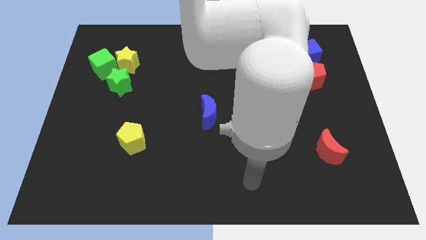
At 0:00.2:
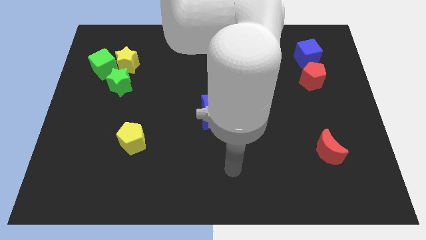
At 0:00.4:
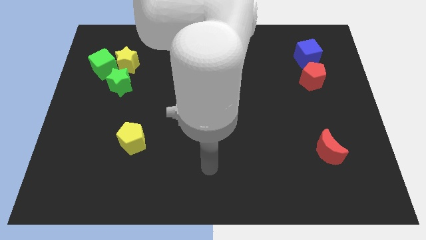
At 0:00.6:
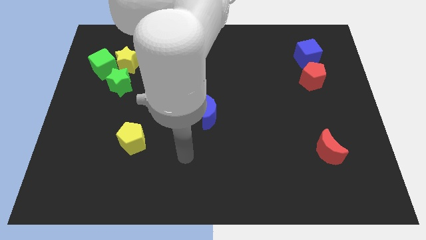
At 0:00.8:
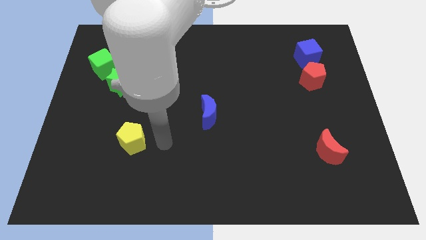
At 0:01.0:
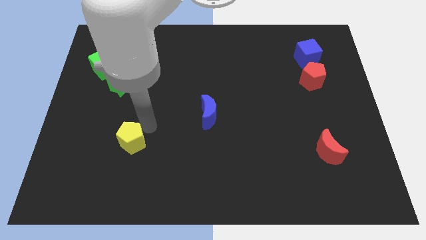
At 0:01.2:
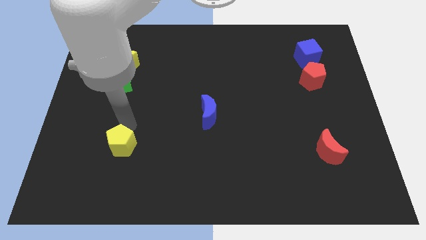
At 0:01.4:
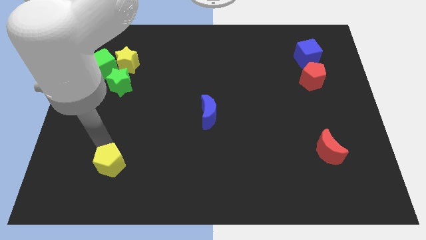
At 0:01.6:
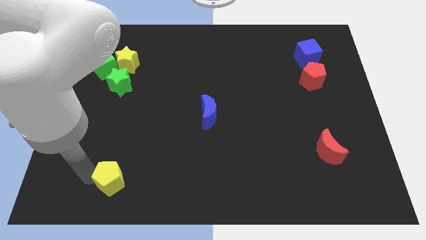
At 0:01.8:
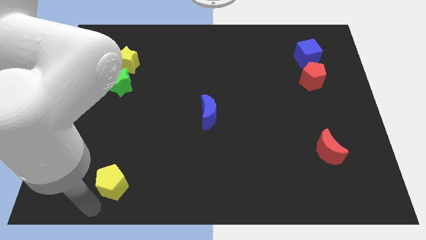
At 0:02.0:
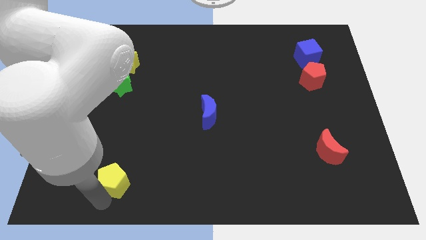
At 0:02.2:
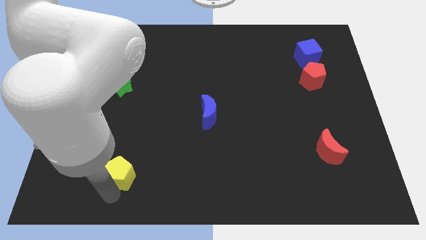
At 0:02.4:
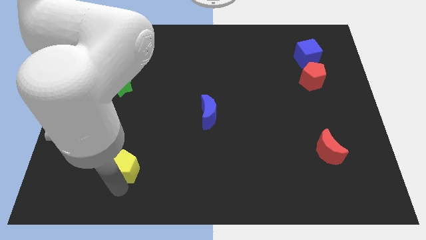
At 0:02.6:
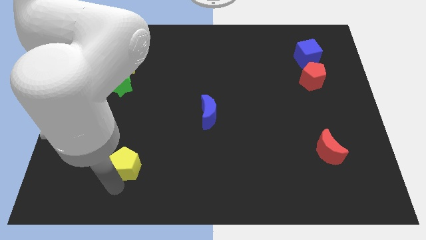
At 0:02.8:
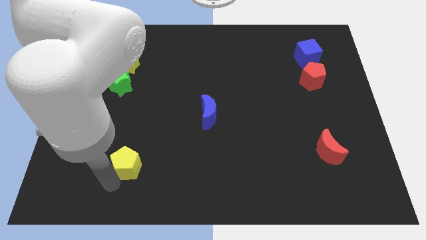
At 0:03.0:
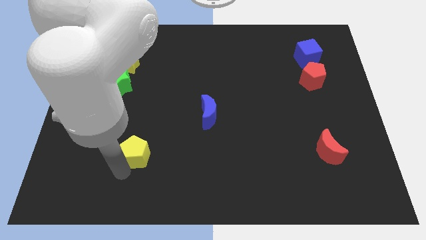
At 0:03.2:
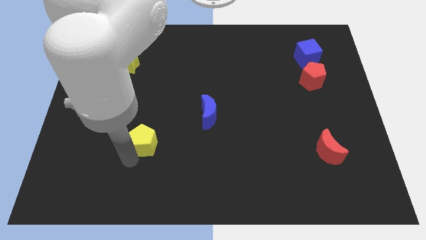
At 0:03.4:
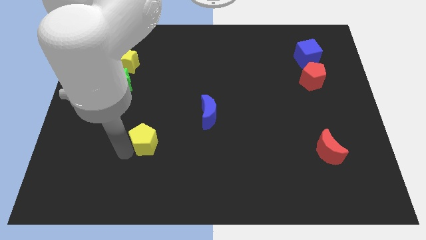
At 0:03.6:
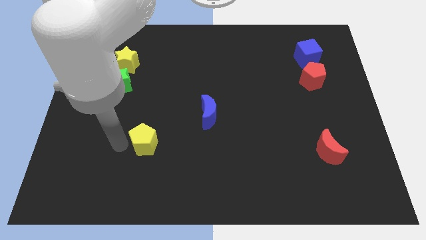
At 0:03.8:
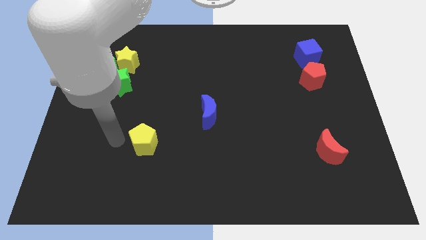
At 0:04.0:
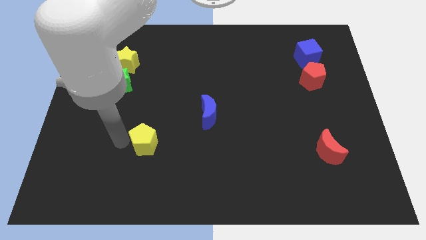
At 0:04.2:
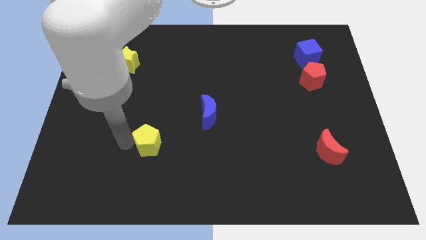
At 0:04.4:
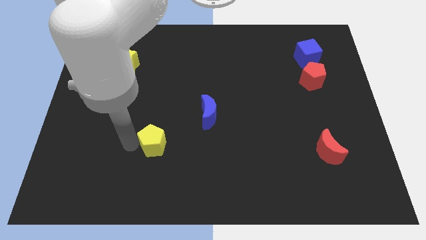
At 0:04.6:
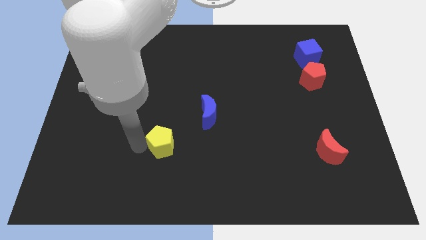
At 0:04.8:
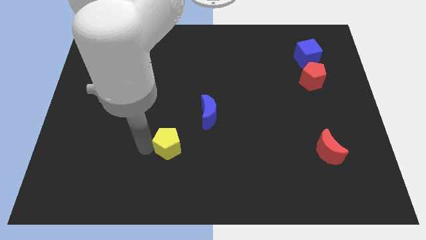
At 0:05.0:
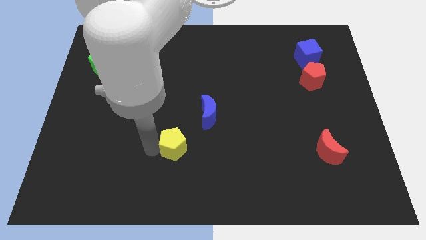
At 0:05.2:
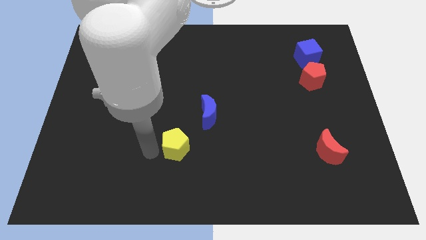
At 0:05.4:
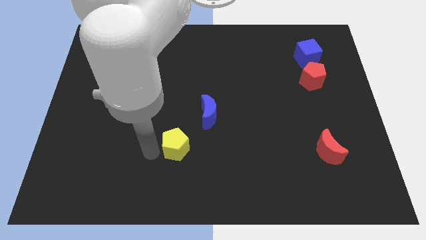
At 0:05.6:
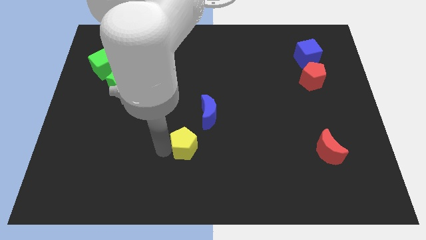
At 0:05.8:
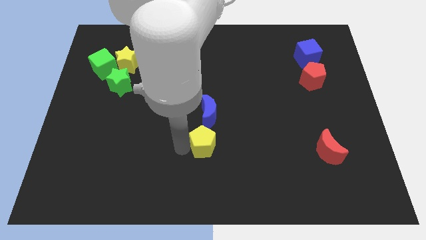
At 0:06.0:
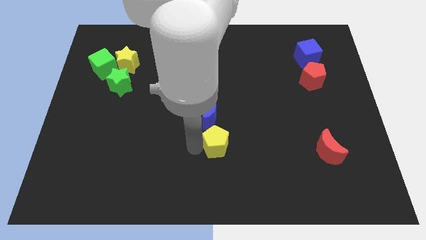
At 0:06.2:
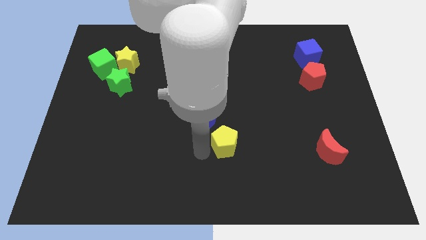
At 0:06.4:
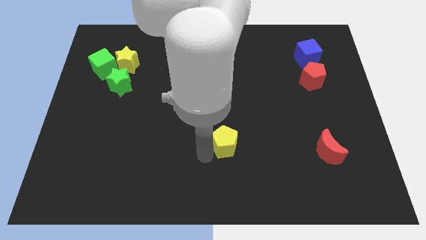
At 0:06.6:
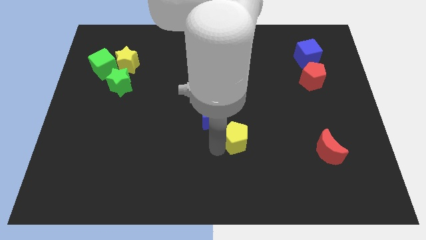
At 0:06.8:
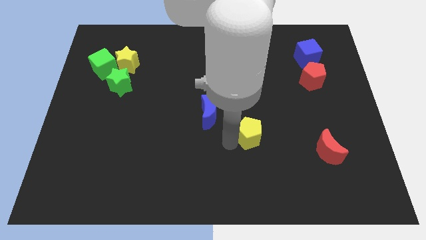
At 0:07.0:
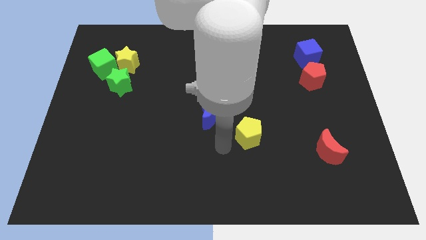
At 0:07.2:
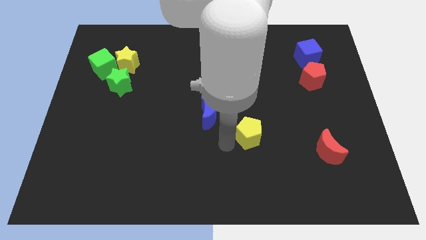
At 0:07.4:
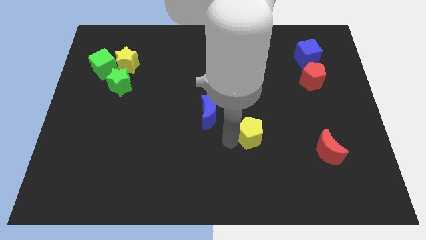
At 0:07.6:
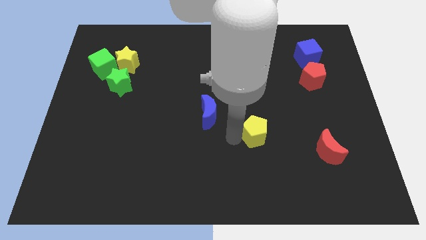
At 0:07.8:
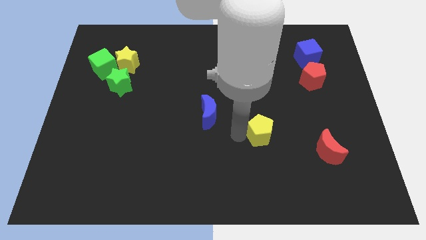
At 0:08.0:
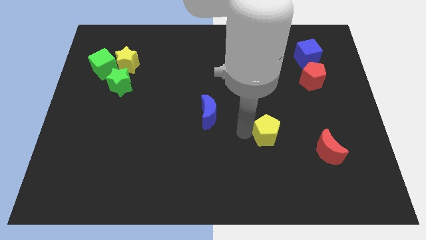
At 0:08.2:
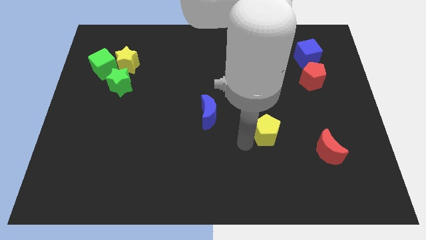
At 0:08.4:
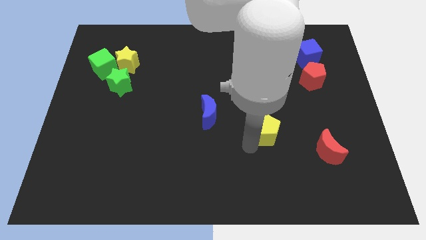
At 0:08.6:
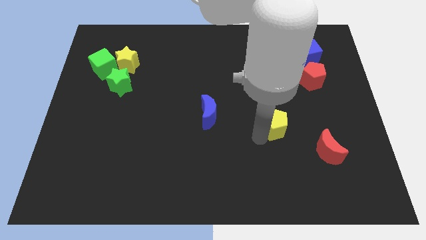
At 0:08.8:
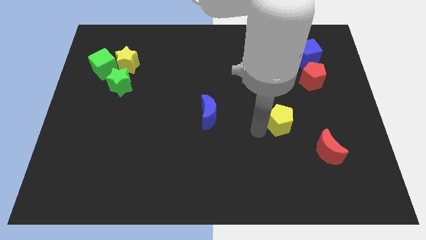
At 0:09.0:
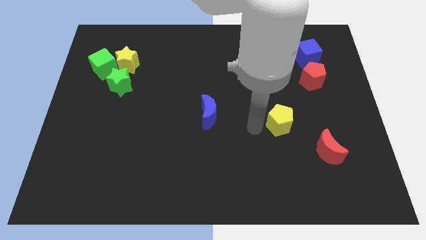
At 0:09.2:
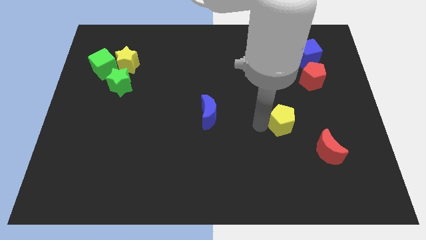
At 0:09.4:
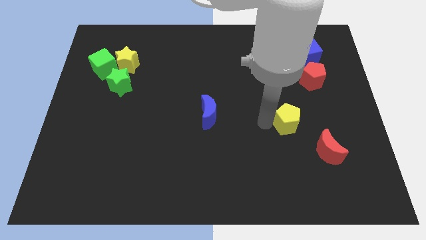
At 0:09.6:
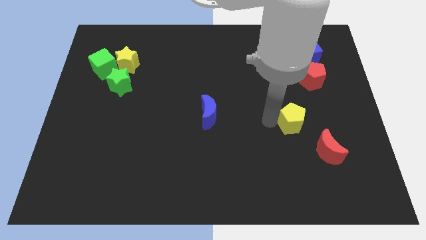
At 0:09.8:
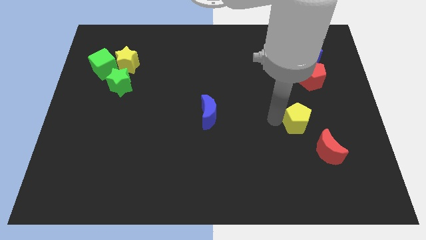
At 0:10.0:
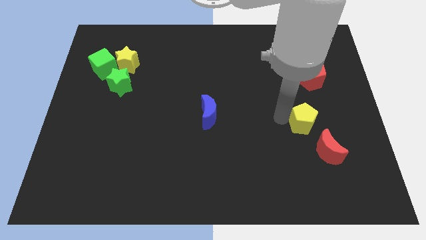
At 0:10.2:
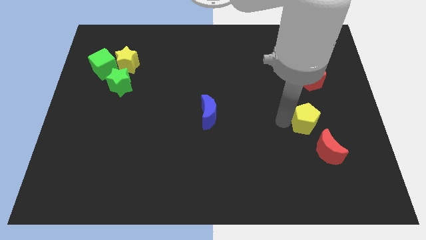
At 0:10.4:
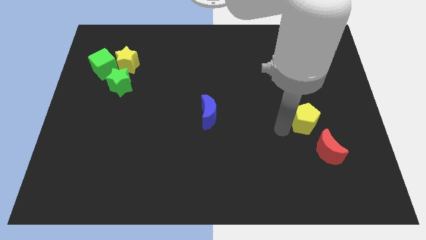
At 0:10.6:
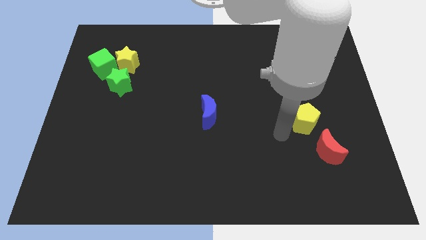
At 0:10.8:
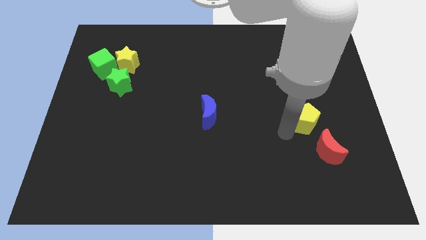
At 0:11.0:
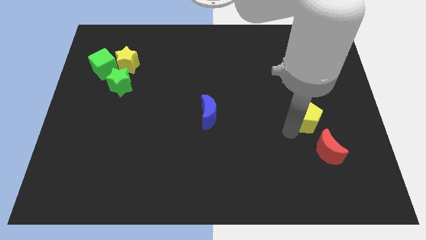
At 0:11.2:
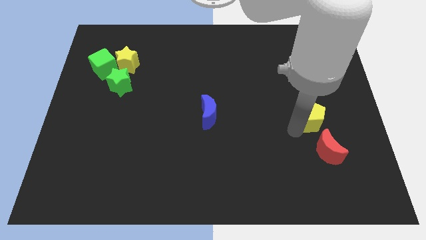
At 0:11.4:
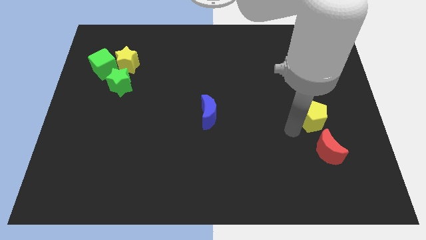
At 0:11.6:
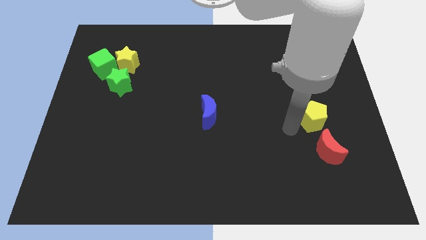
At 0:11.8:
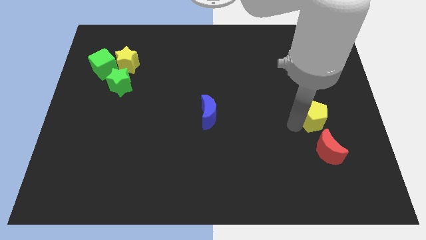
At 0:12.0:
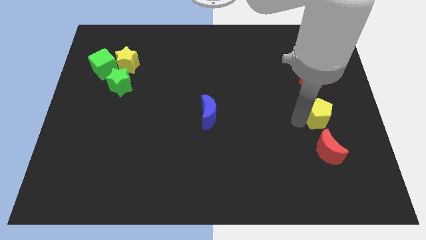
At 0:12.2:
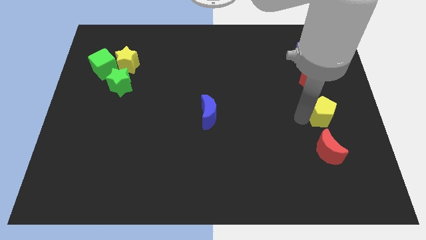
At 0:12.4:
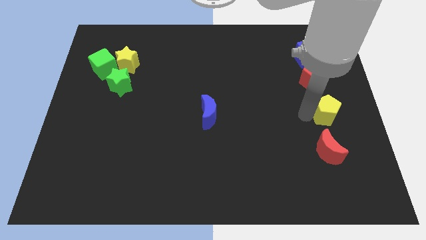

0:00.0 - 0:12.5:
push the yellow pentagon to the right side of the board

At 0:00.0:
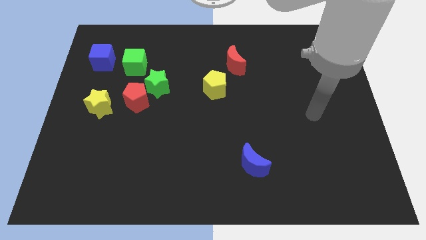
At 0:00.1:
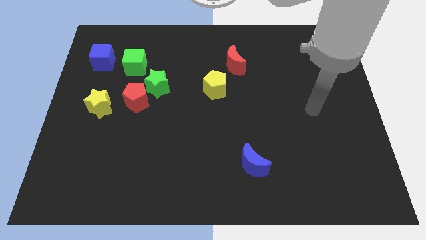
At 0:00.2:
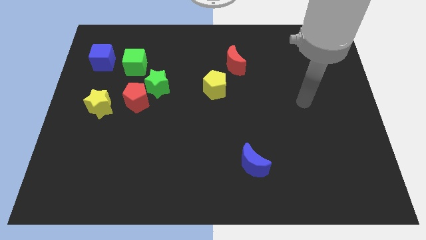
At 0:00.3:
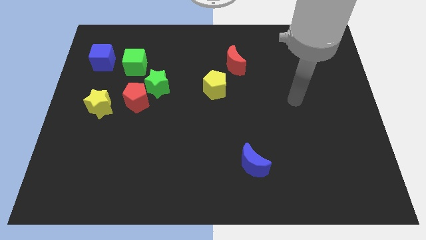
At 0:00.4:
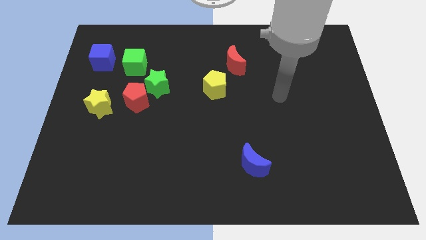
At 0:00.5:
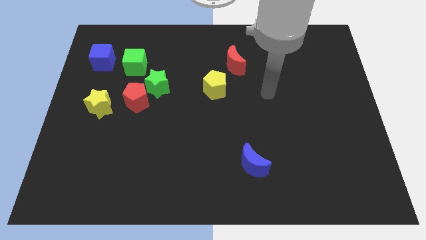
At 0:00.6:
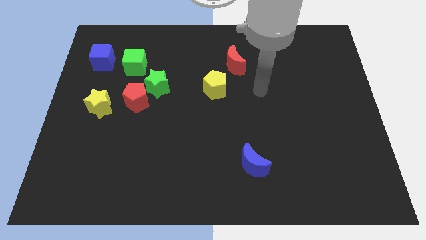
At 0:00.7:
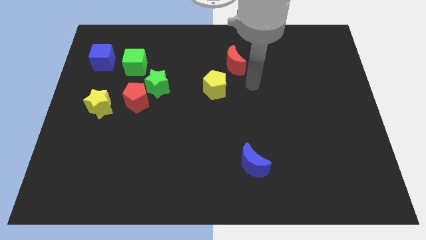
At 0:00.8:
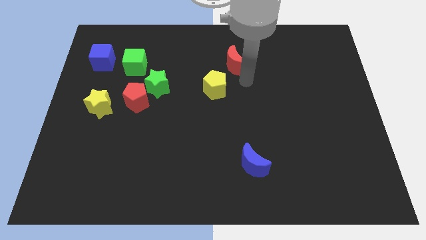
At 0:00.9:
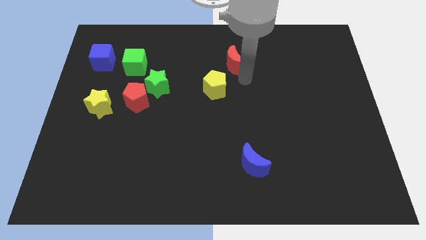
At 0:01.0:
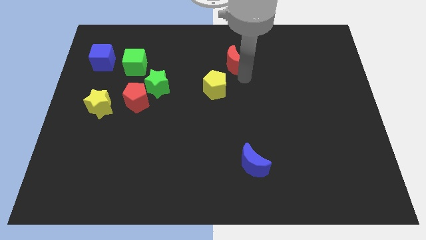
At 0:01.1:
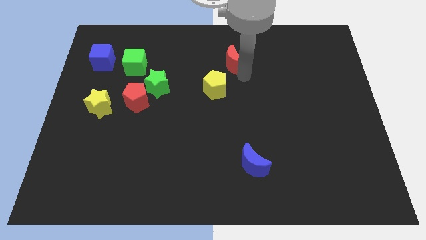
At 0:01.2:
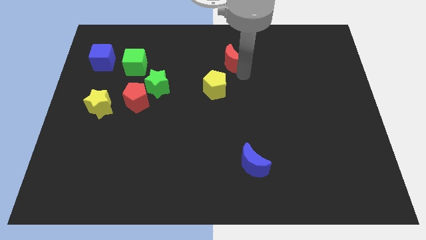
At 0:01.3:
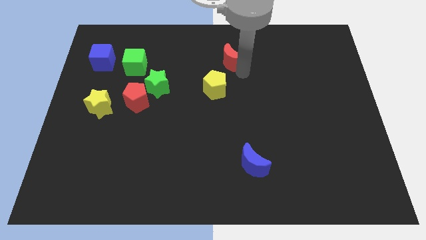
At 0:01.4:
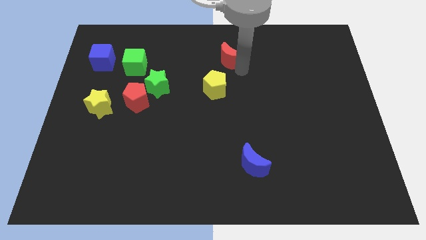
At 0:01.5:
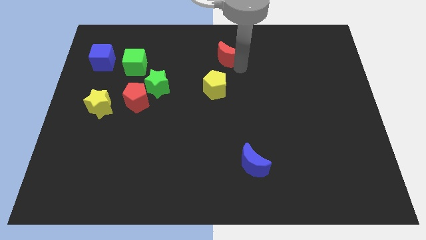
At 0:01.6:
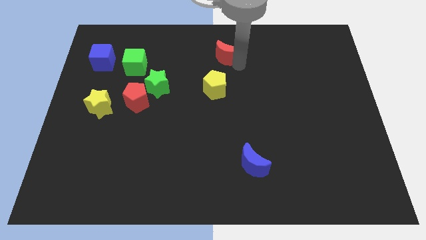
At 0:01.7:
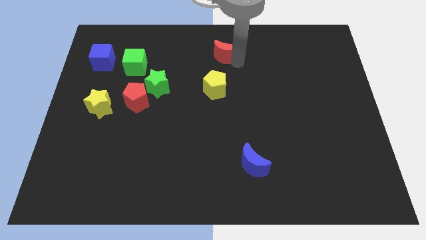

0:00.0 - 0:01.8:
put the red moon to the top side
